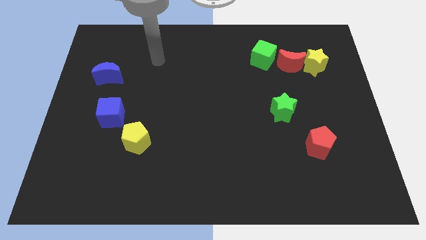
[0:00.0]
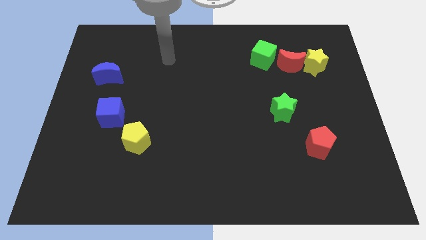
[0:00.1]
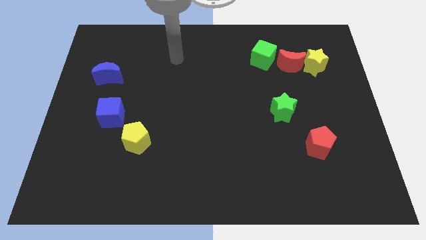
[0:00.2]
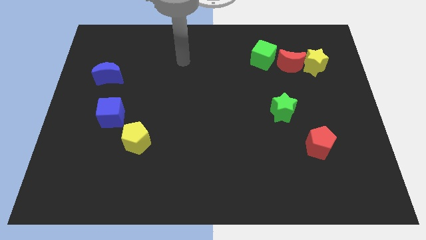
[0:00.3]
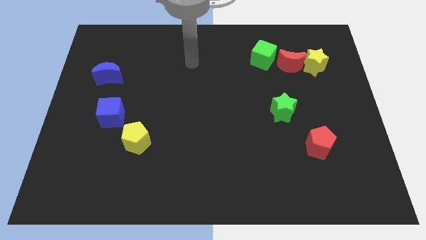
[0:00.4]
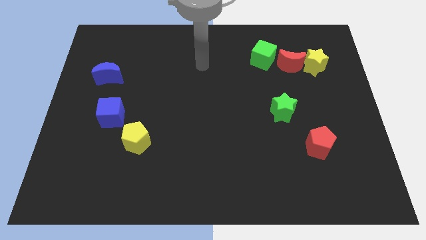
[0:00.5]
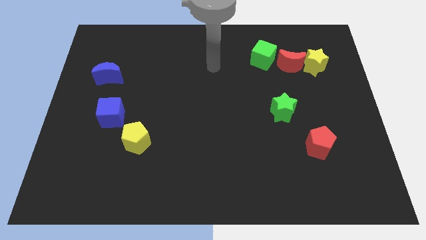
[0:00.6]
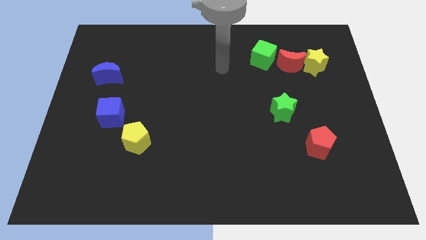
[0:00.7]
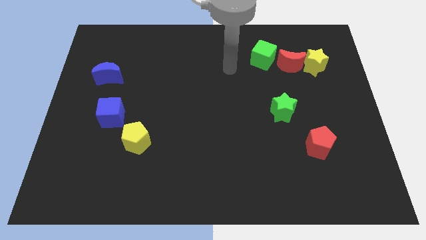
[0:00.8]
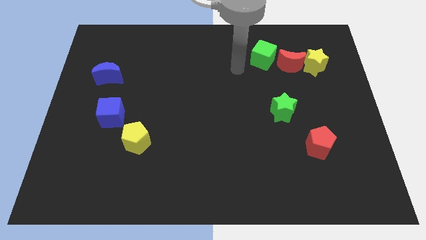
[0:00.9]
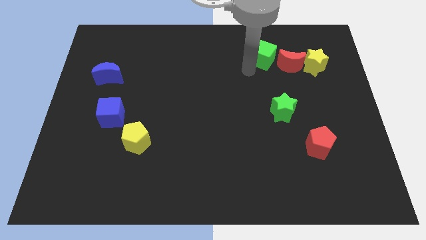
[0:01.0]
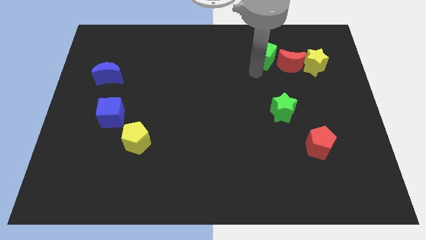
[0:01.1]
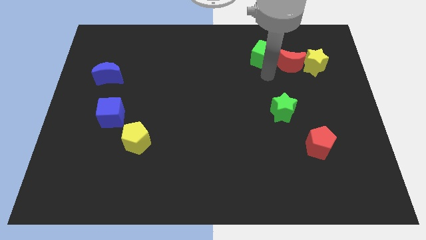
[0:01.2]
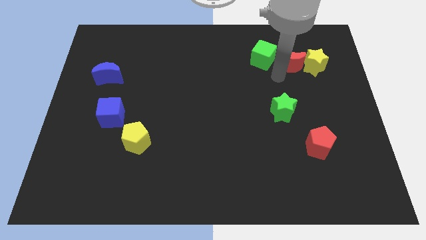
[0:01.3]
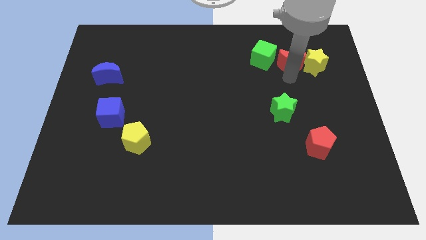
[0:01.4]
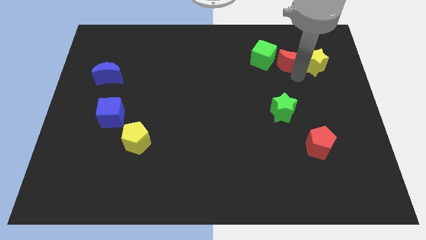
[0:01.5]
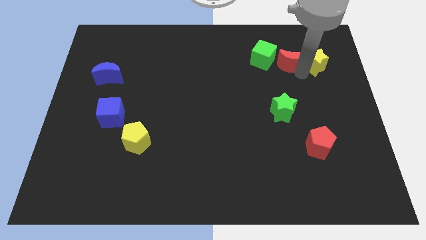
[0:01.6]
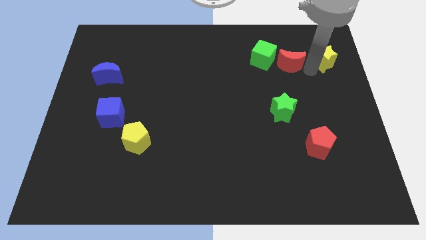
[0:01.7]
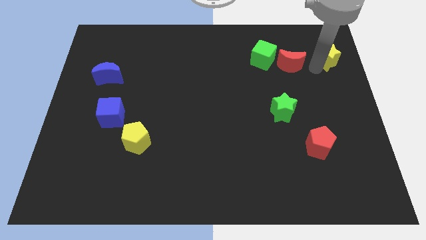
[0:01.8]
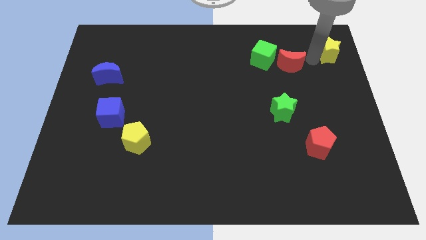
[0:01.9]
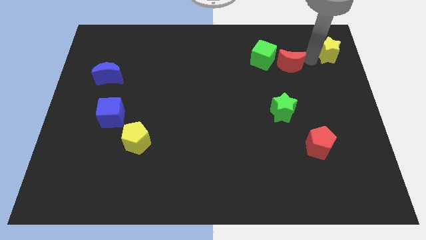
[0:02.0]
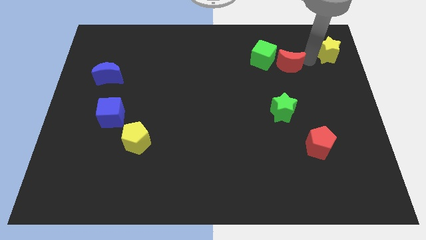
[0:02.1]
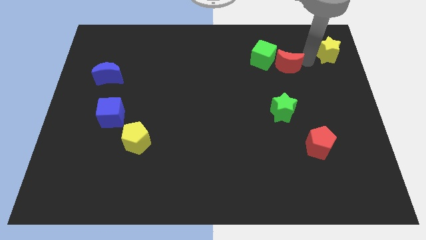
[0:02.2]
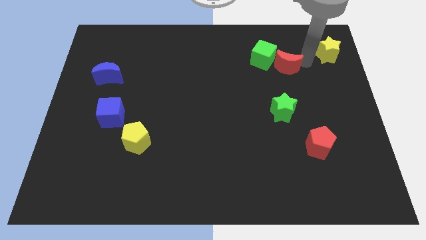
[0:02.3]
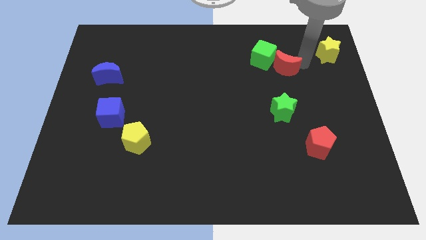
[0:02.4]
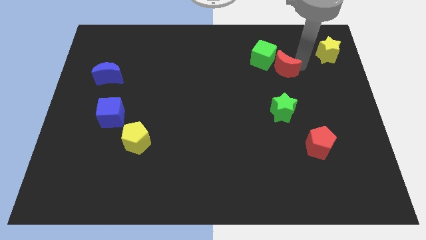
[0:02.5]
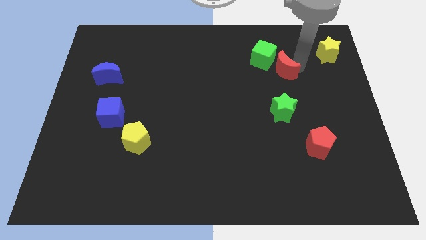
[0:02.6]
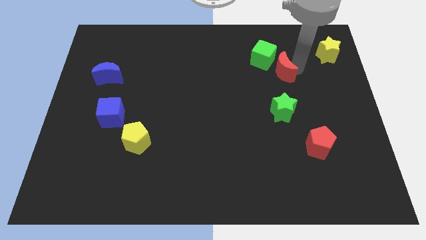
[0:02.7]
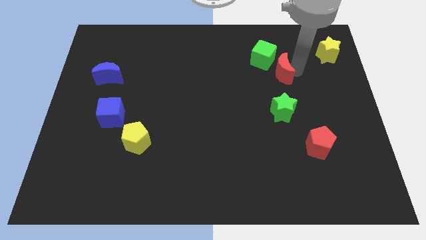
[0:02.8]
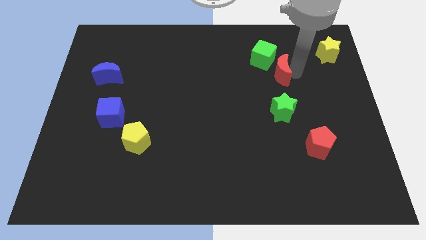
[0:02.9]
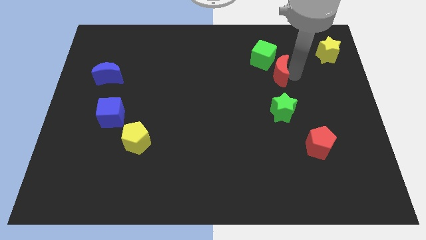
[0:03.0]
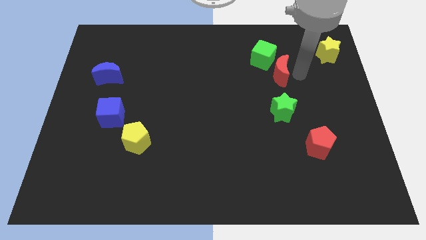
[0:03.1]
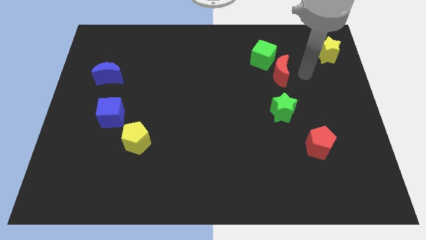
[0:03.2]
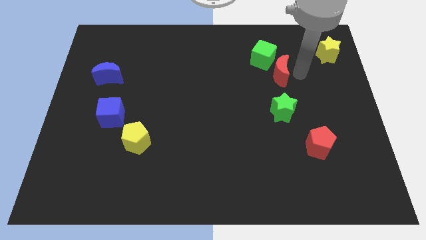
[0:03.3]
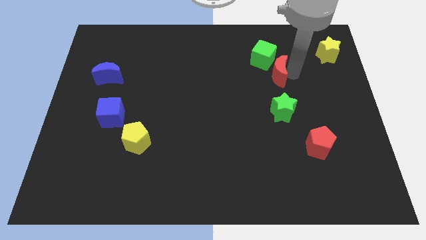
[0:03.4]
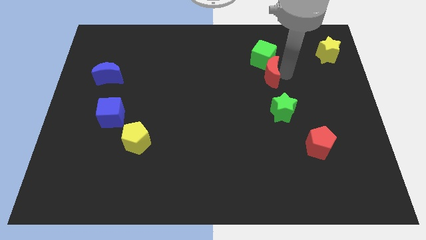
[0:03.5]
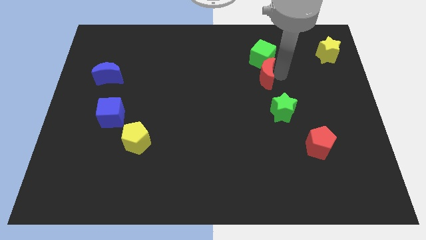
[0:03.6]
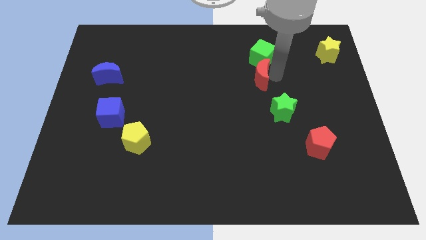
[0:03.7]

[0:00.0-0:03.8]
move the red moon a bit to the left

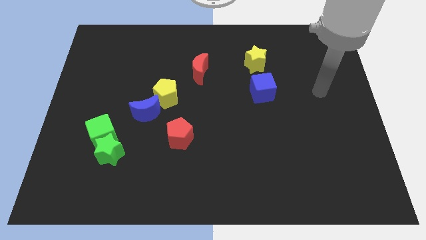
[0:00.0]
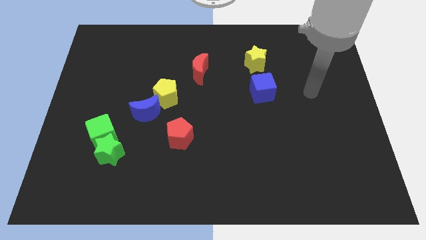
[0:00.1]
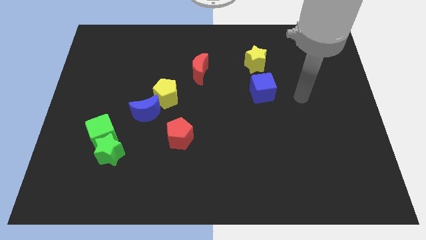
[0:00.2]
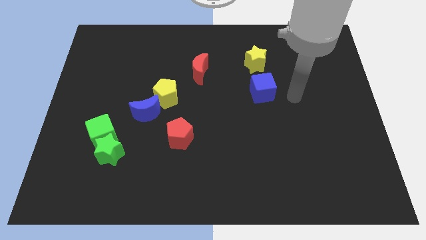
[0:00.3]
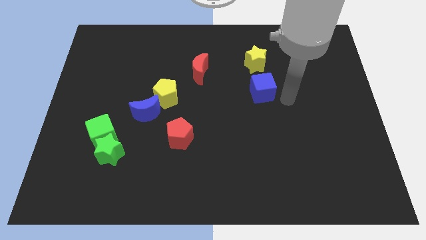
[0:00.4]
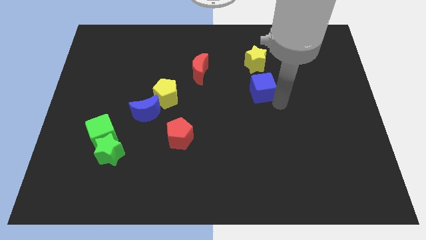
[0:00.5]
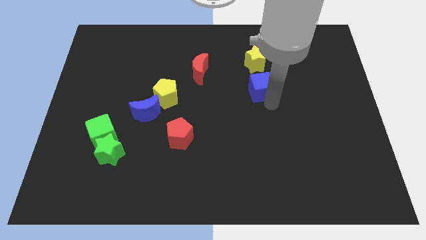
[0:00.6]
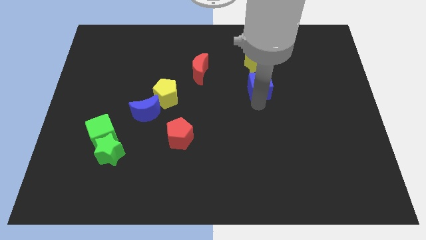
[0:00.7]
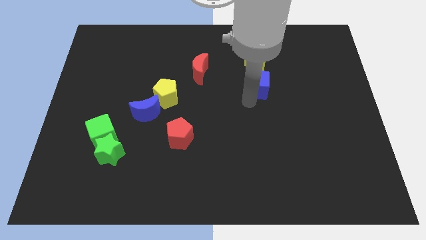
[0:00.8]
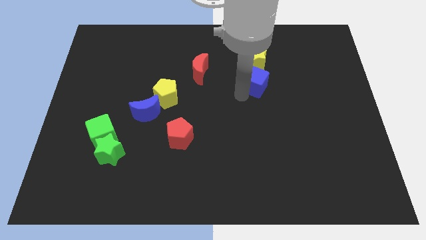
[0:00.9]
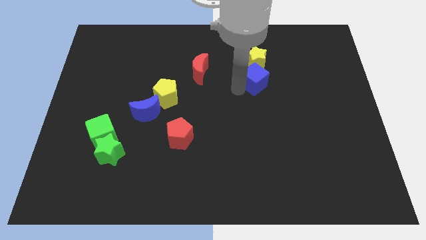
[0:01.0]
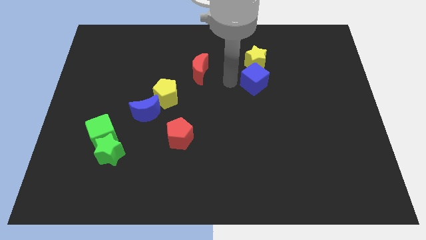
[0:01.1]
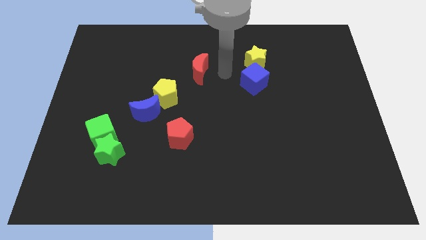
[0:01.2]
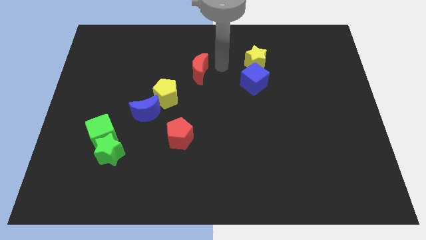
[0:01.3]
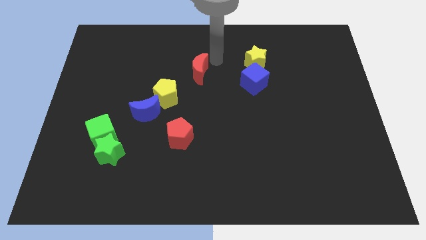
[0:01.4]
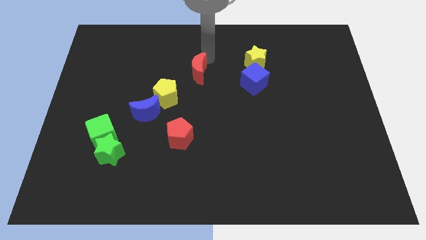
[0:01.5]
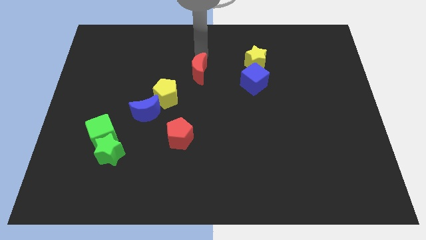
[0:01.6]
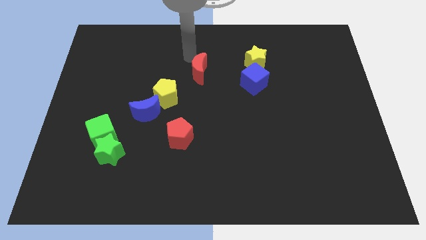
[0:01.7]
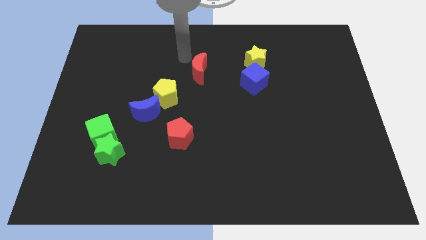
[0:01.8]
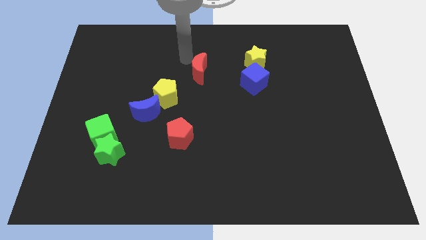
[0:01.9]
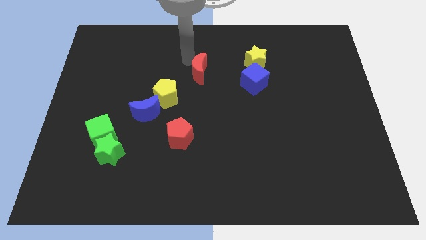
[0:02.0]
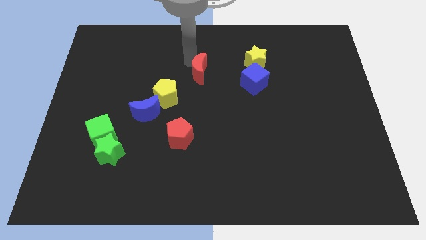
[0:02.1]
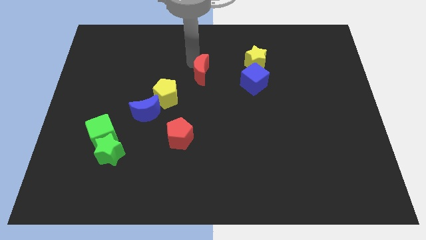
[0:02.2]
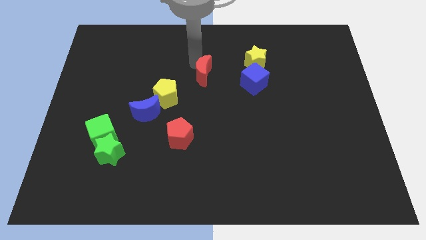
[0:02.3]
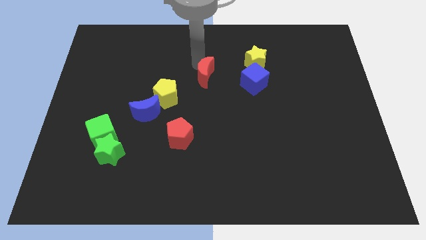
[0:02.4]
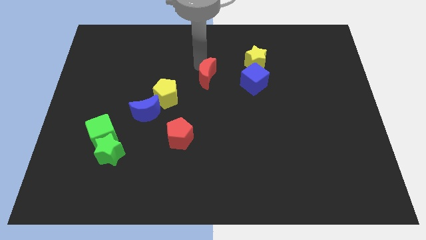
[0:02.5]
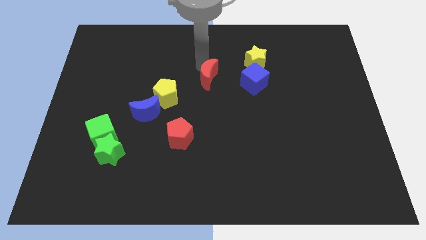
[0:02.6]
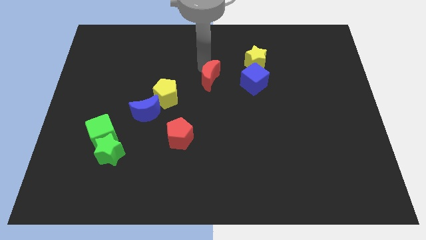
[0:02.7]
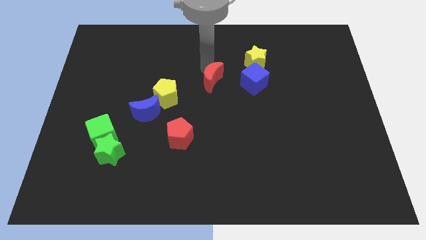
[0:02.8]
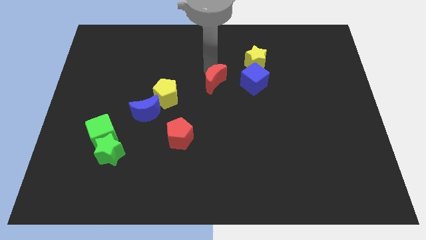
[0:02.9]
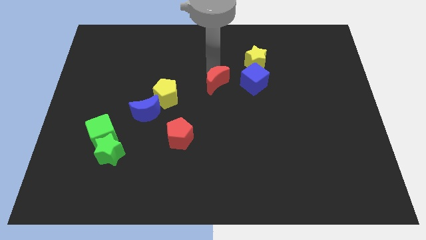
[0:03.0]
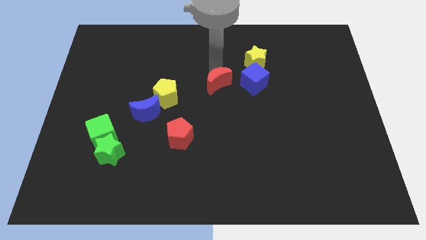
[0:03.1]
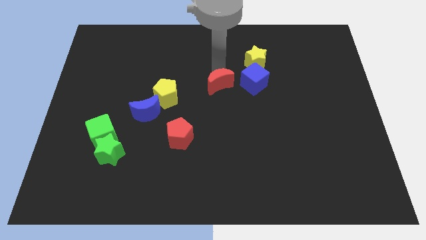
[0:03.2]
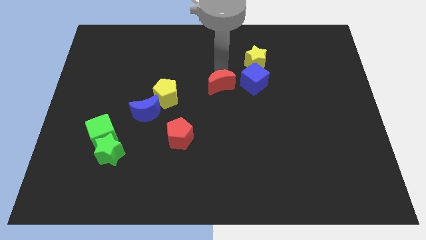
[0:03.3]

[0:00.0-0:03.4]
push the red moon downwards and right slightly

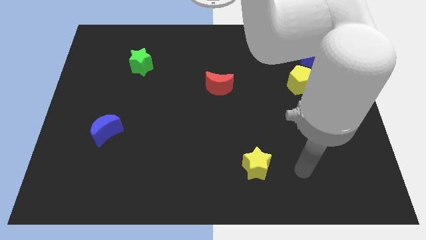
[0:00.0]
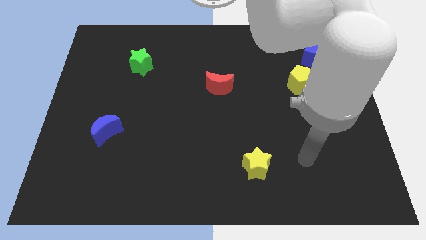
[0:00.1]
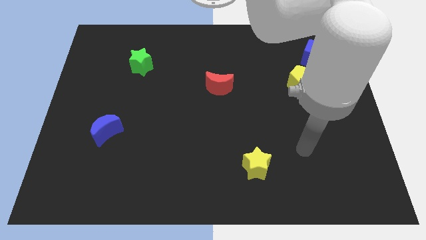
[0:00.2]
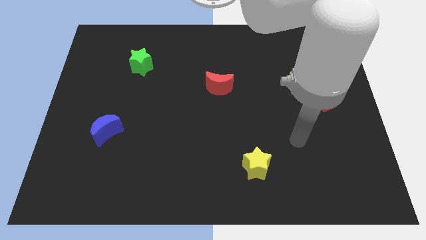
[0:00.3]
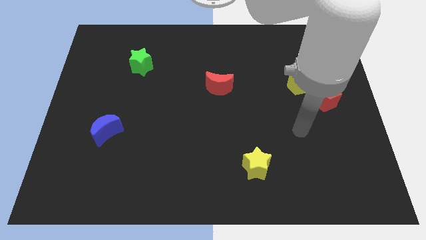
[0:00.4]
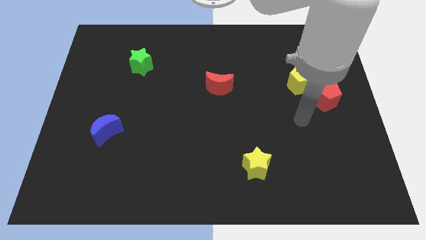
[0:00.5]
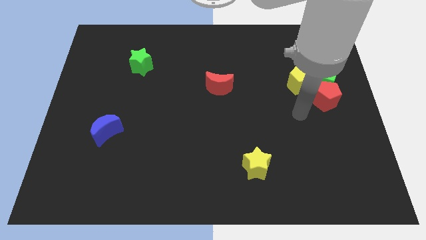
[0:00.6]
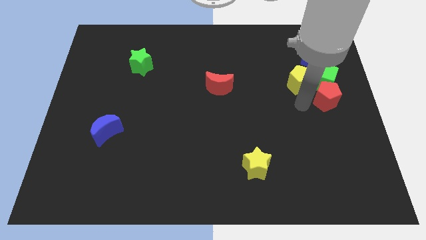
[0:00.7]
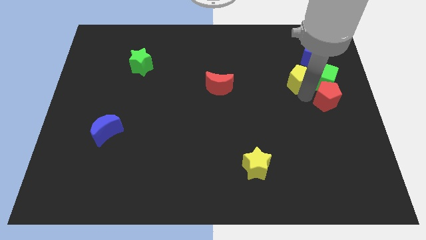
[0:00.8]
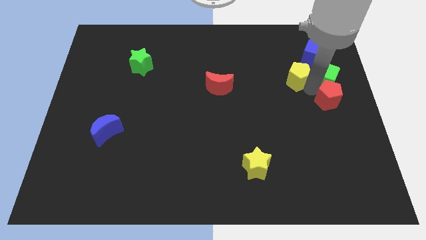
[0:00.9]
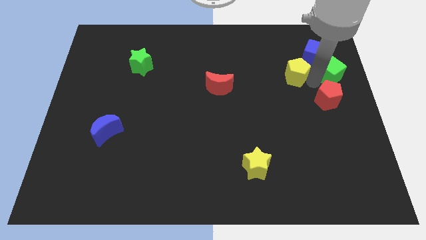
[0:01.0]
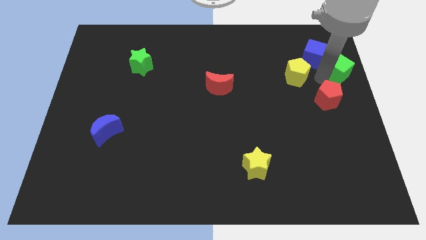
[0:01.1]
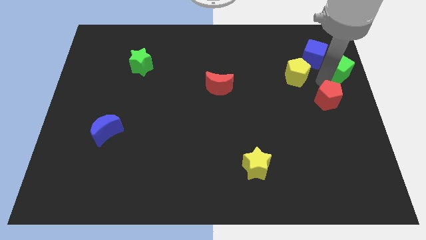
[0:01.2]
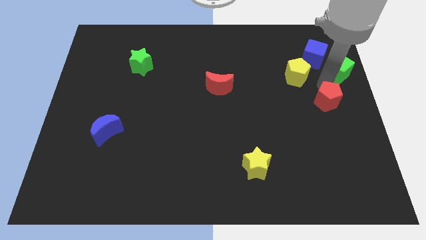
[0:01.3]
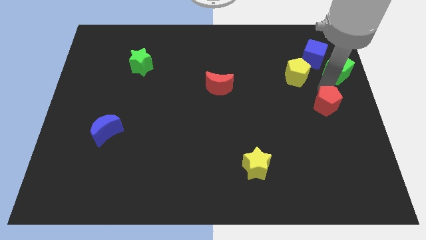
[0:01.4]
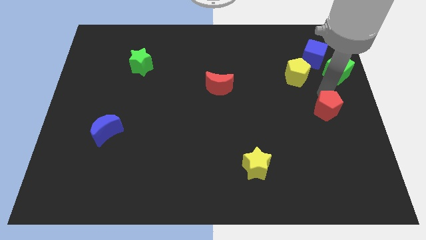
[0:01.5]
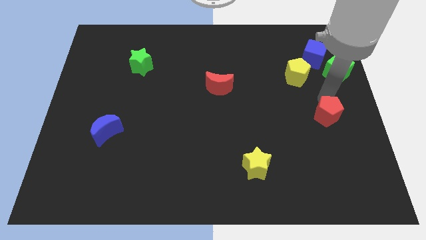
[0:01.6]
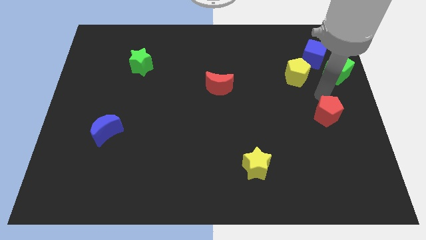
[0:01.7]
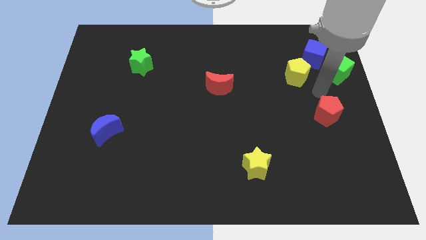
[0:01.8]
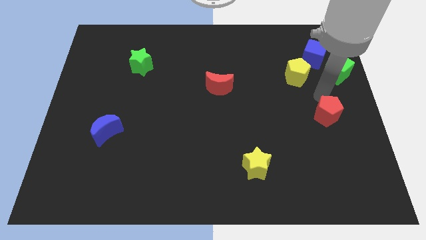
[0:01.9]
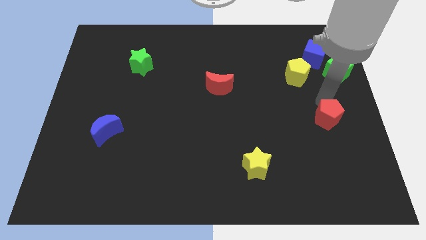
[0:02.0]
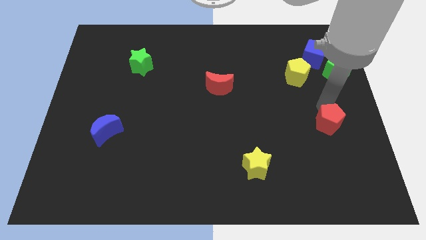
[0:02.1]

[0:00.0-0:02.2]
slightly slide the red pentagon down
